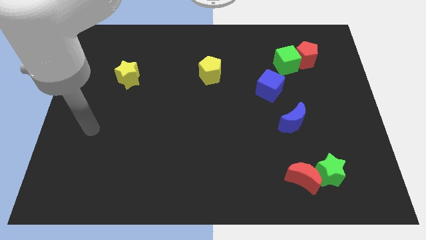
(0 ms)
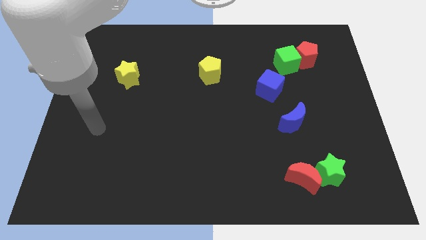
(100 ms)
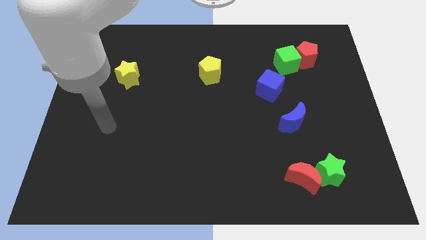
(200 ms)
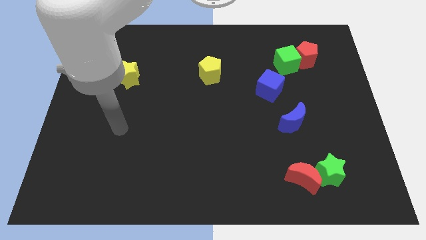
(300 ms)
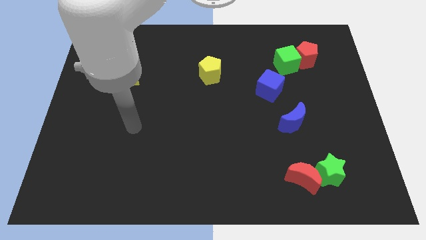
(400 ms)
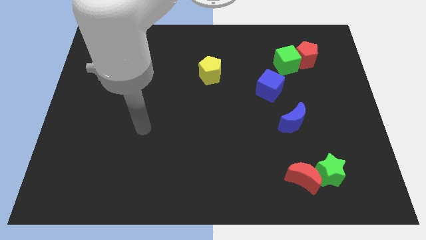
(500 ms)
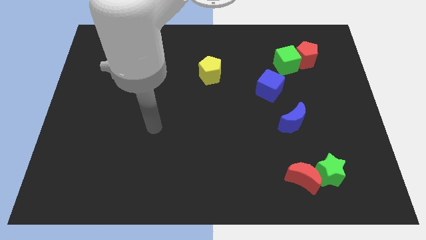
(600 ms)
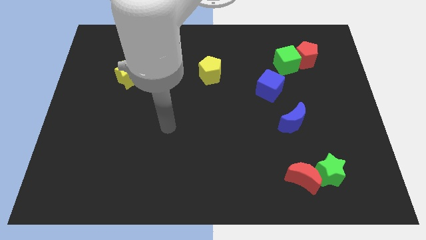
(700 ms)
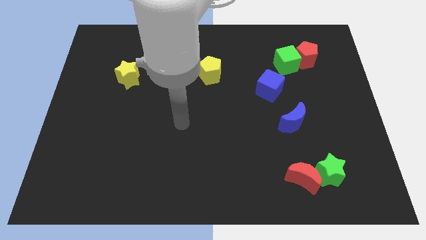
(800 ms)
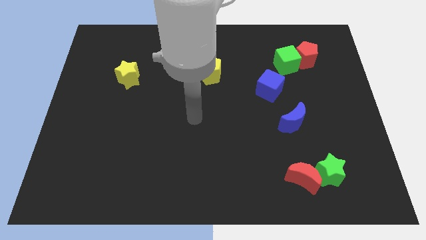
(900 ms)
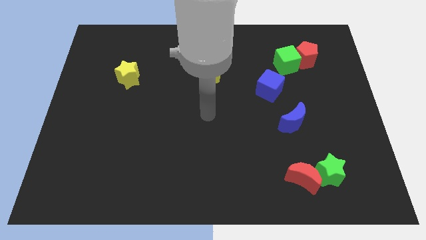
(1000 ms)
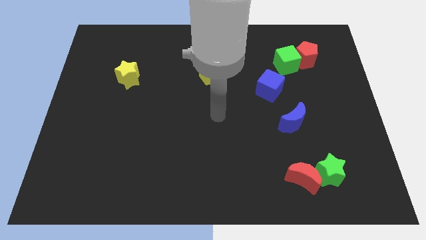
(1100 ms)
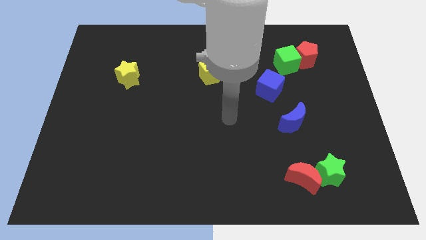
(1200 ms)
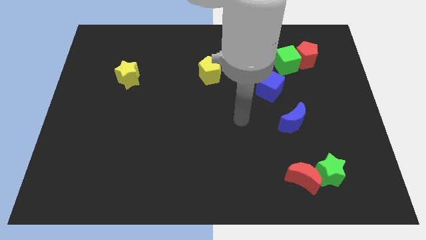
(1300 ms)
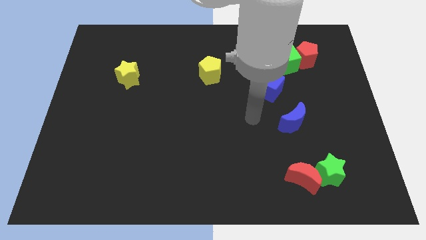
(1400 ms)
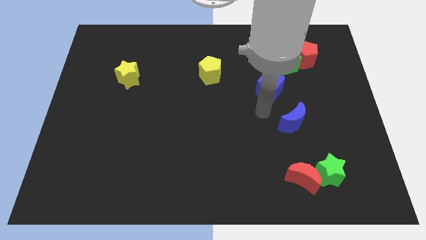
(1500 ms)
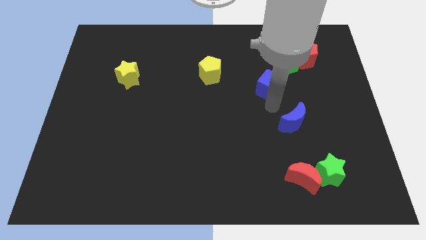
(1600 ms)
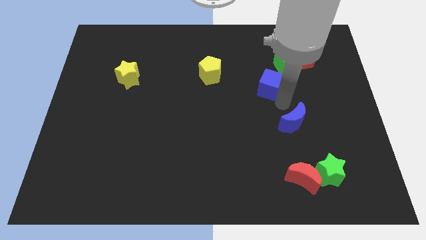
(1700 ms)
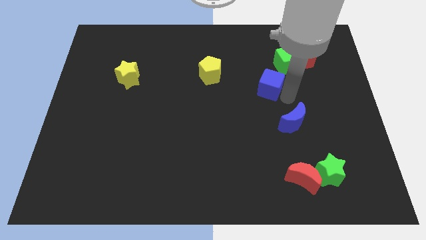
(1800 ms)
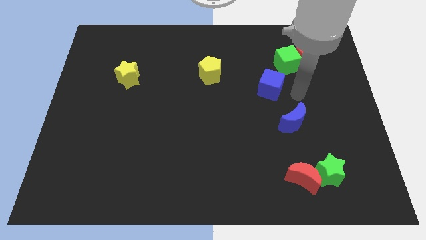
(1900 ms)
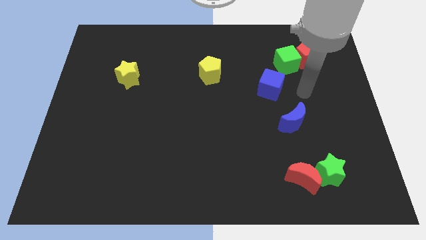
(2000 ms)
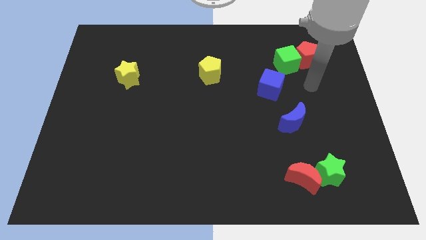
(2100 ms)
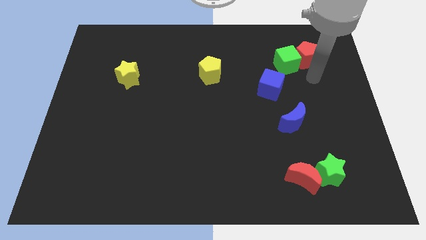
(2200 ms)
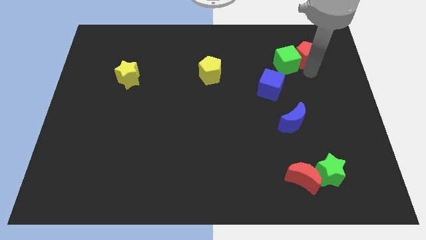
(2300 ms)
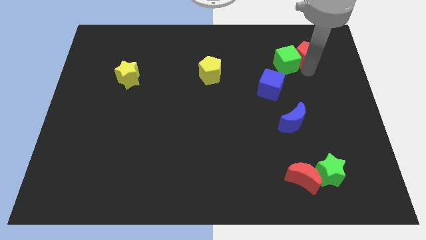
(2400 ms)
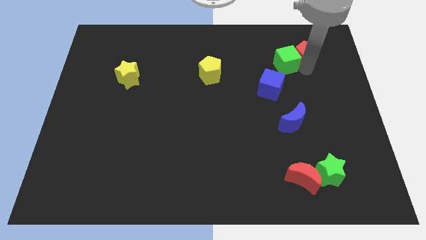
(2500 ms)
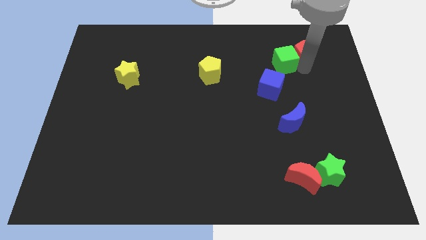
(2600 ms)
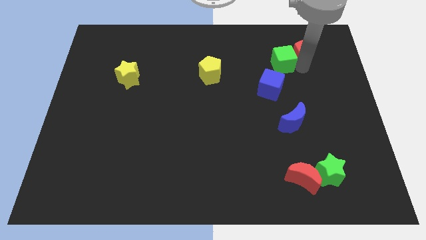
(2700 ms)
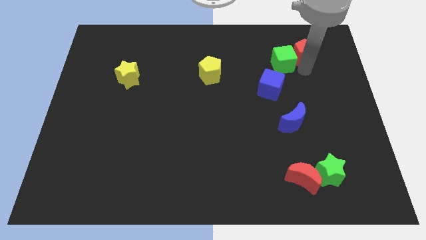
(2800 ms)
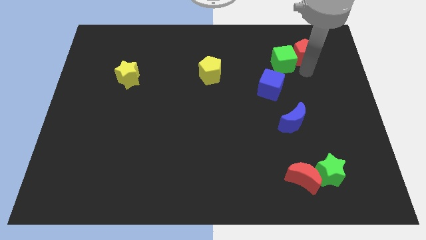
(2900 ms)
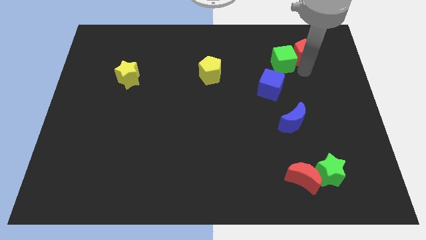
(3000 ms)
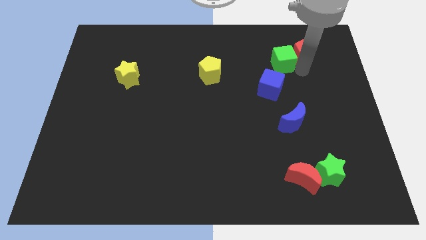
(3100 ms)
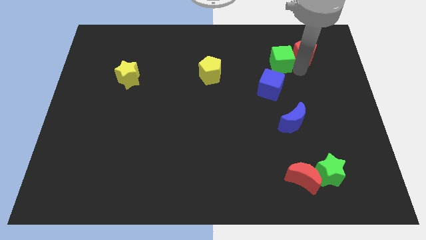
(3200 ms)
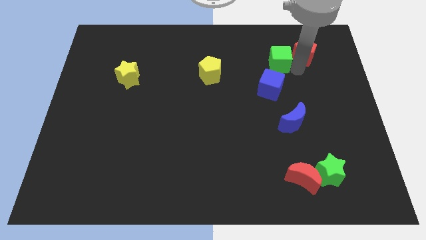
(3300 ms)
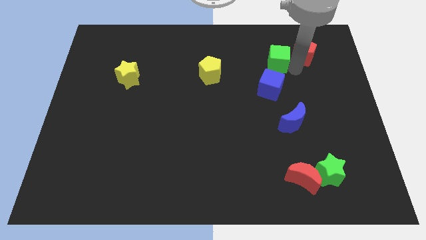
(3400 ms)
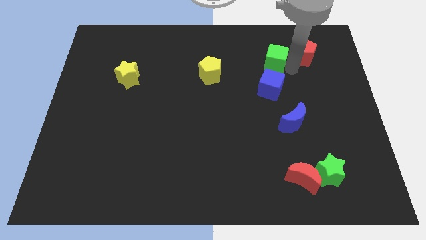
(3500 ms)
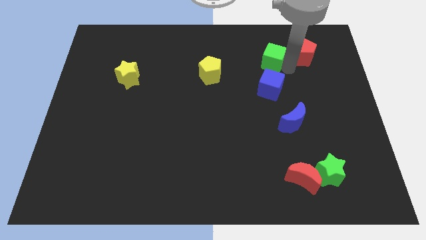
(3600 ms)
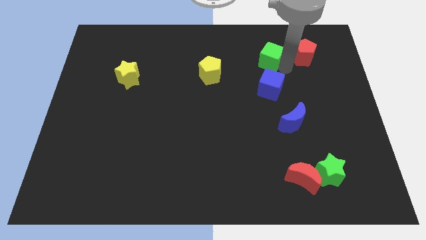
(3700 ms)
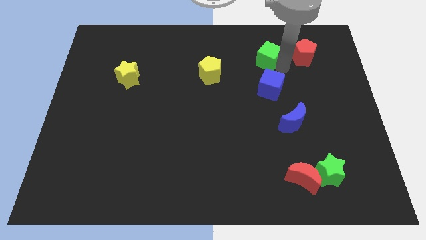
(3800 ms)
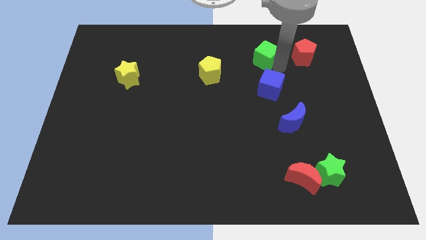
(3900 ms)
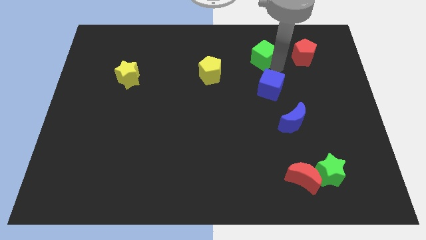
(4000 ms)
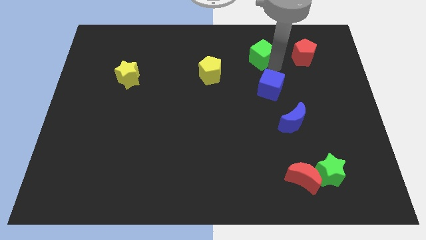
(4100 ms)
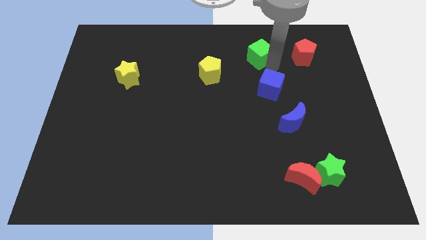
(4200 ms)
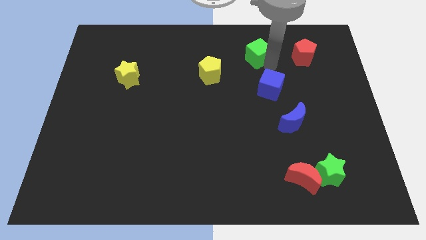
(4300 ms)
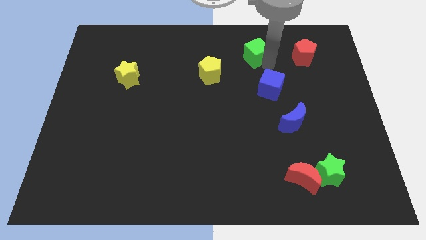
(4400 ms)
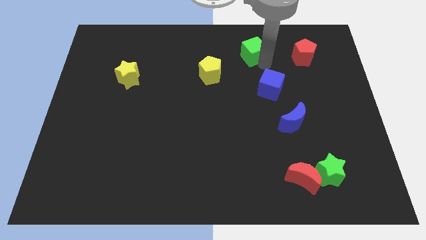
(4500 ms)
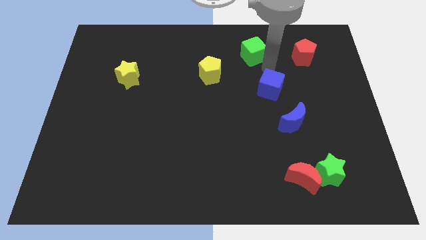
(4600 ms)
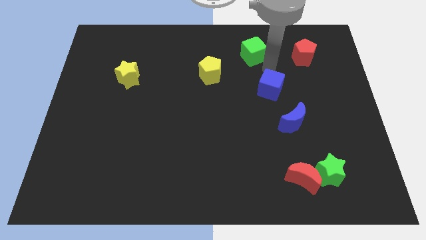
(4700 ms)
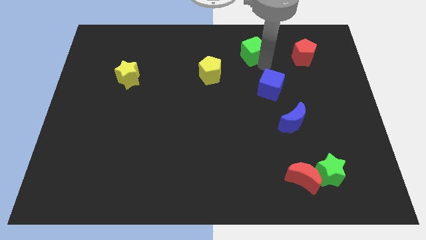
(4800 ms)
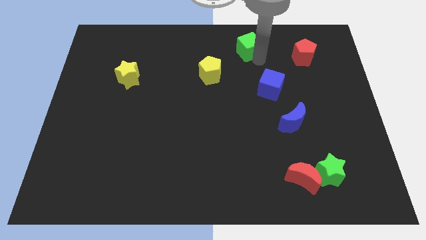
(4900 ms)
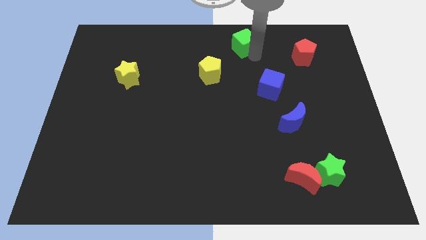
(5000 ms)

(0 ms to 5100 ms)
slide the green cube to the top side

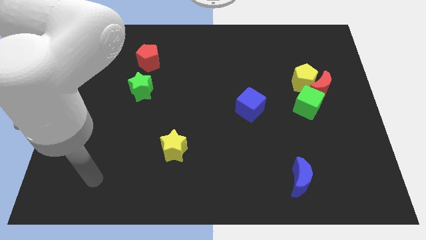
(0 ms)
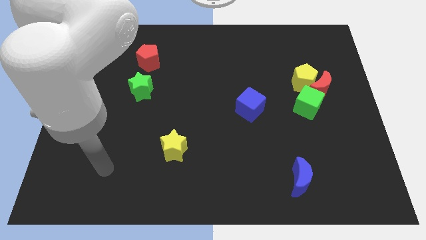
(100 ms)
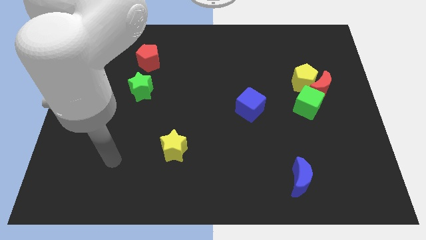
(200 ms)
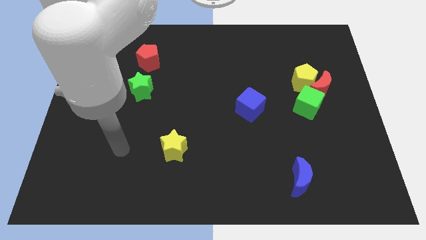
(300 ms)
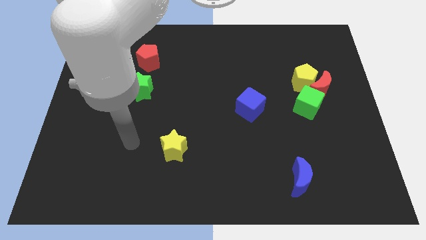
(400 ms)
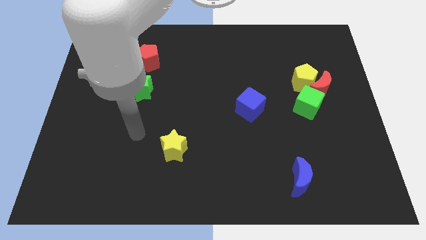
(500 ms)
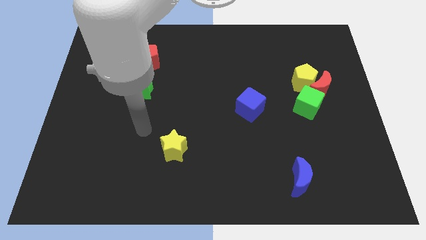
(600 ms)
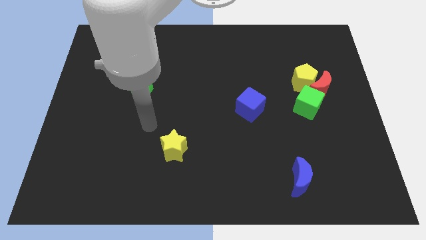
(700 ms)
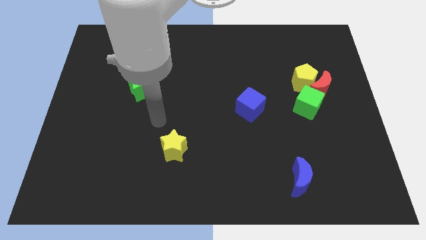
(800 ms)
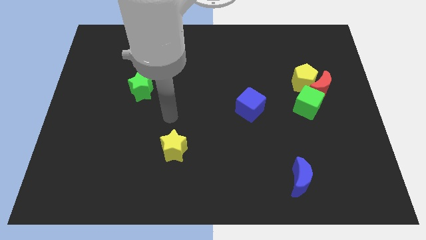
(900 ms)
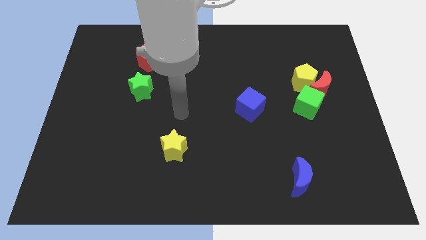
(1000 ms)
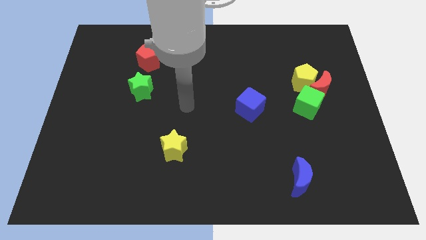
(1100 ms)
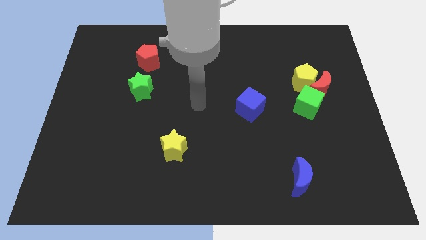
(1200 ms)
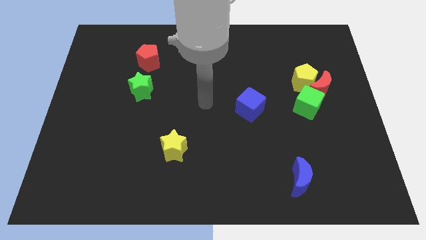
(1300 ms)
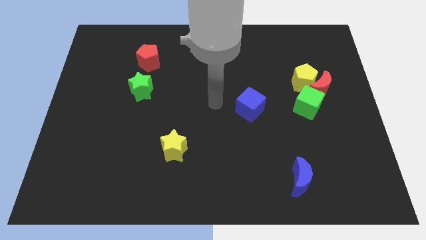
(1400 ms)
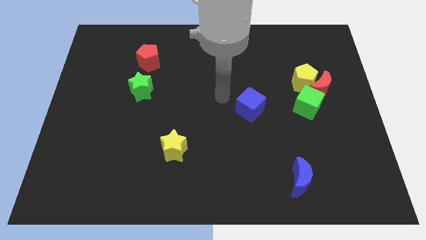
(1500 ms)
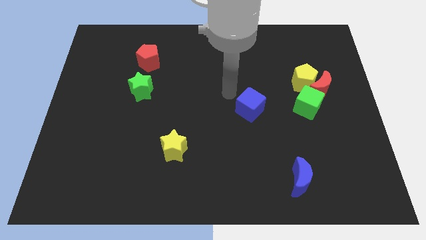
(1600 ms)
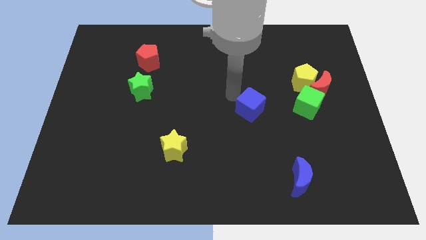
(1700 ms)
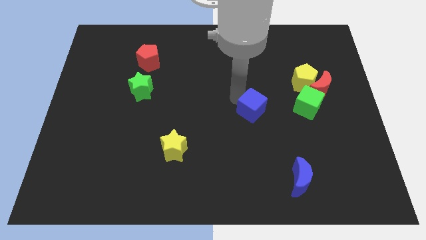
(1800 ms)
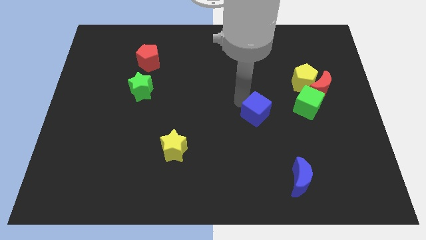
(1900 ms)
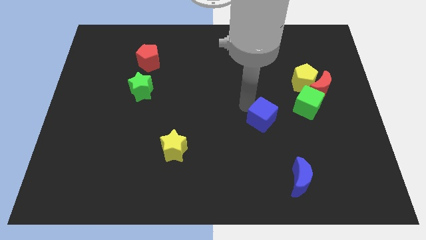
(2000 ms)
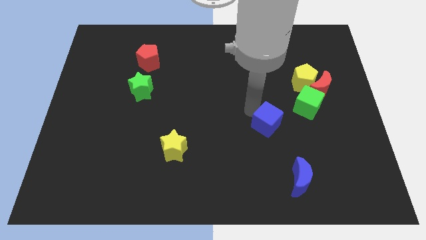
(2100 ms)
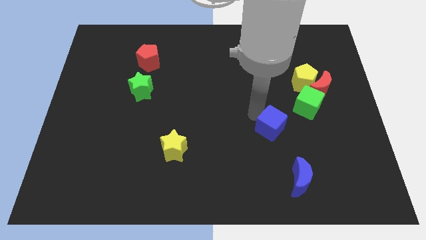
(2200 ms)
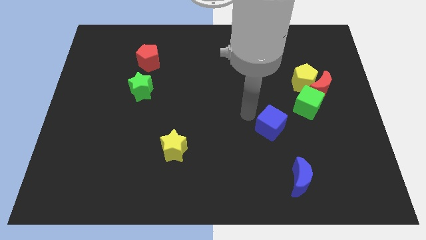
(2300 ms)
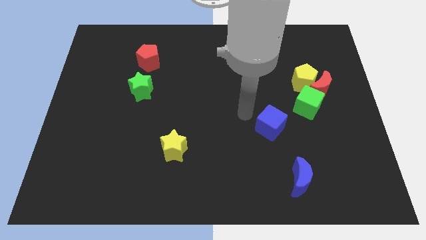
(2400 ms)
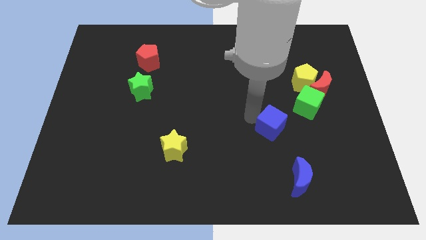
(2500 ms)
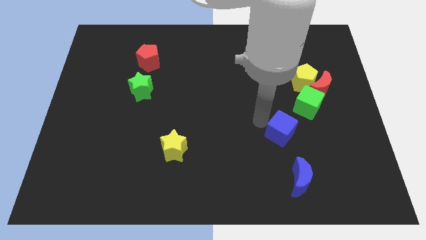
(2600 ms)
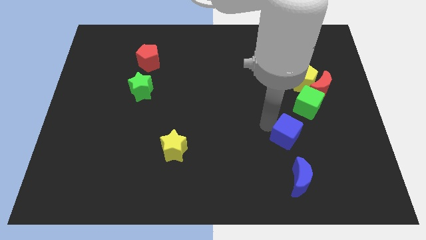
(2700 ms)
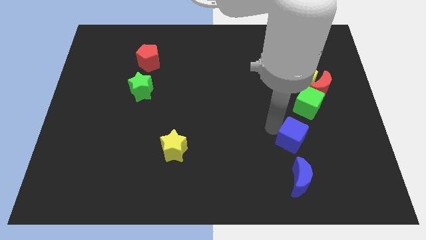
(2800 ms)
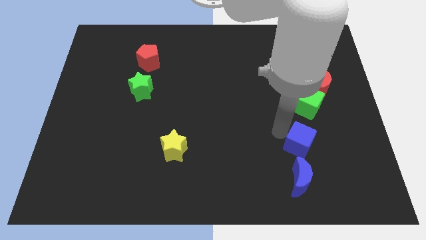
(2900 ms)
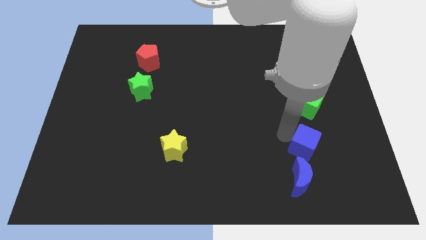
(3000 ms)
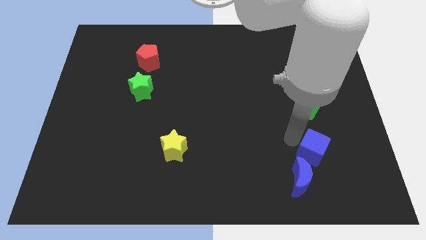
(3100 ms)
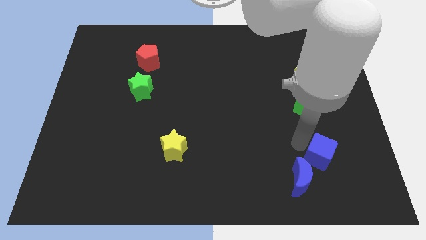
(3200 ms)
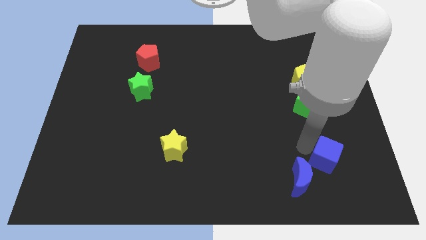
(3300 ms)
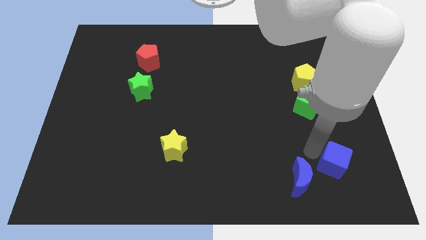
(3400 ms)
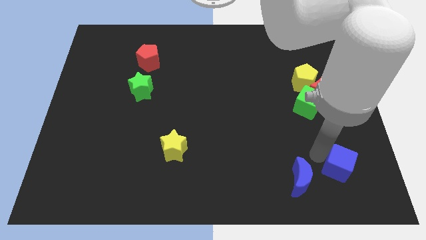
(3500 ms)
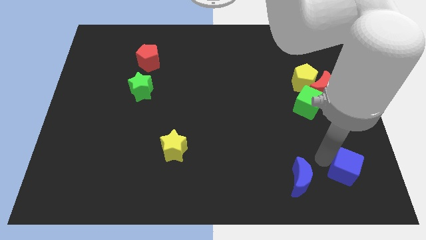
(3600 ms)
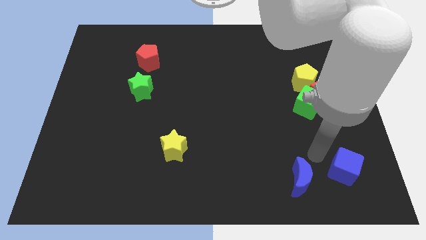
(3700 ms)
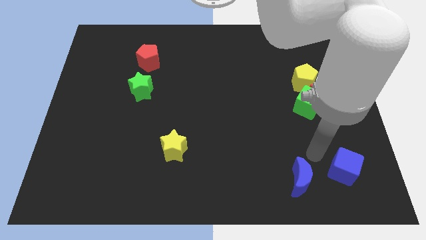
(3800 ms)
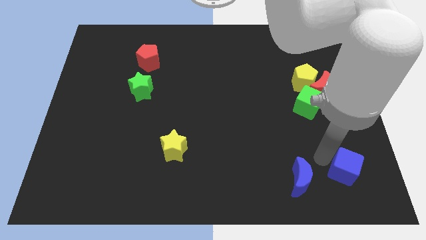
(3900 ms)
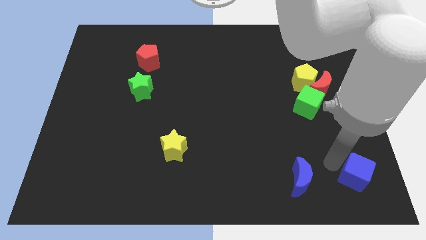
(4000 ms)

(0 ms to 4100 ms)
slide the blue cube to the bottom right
